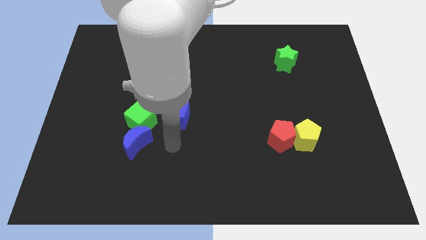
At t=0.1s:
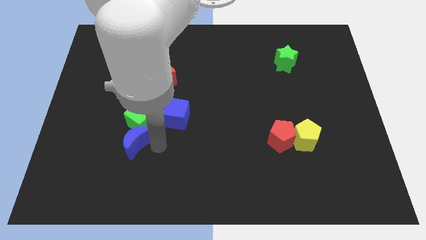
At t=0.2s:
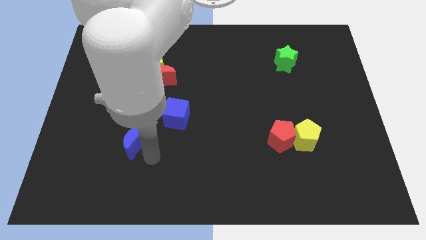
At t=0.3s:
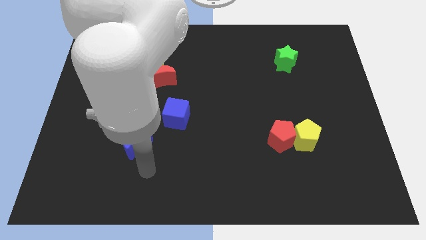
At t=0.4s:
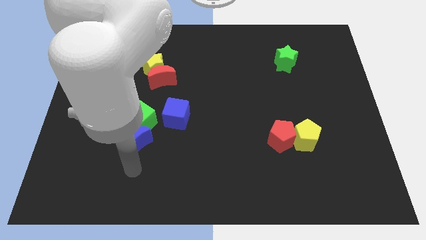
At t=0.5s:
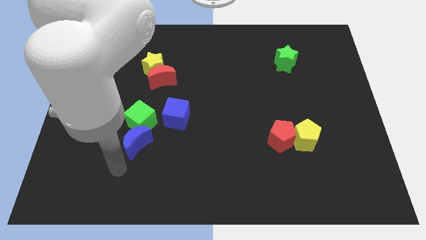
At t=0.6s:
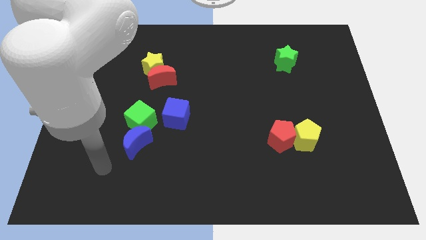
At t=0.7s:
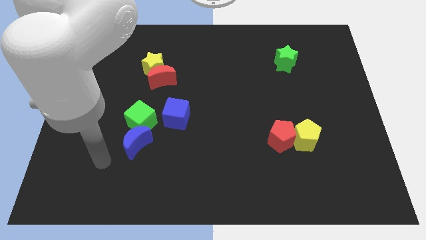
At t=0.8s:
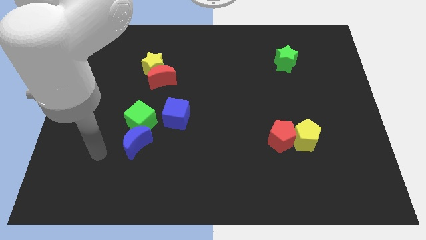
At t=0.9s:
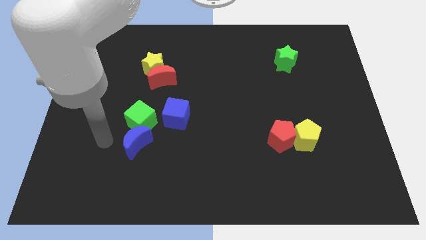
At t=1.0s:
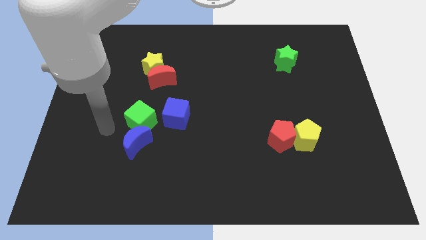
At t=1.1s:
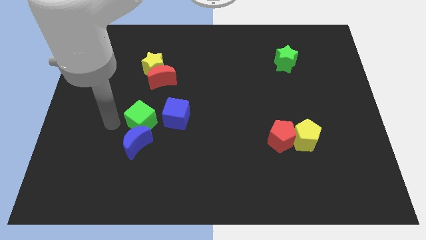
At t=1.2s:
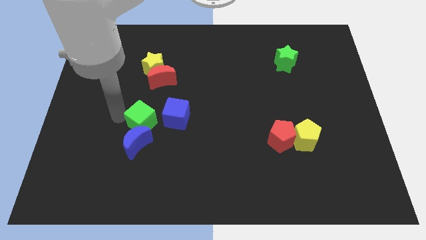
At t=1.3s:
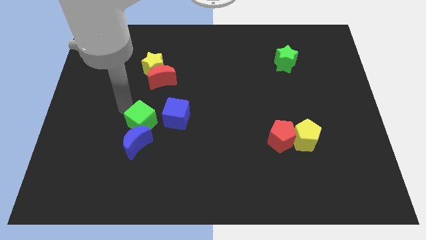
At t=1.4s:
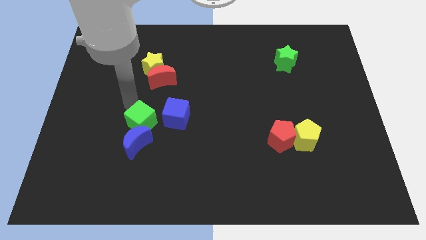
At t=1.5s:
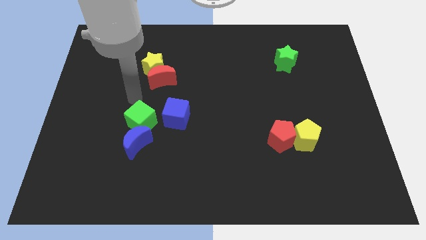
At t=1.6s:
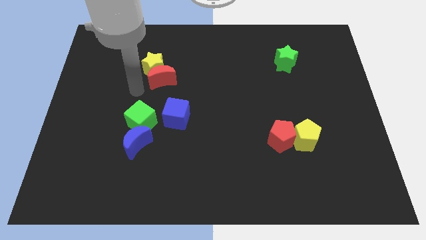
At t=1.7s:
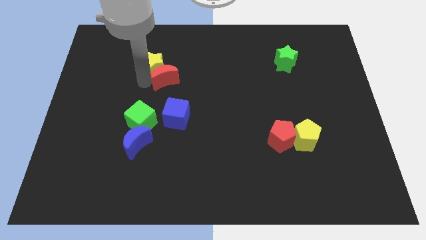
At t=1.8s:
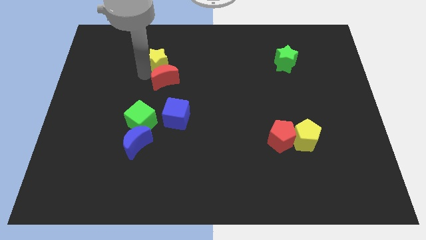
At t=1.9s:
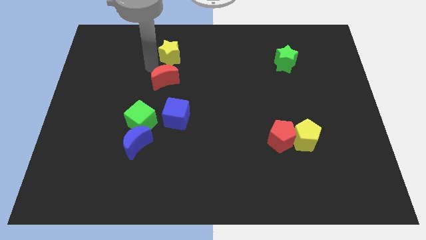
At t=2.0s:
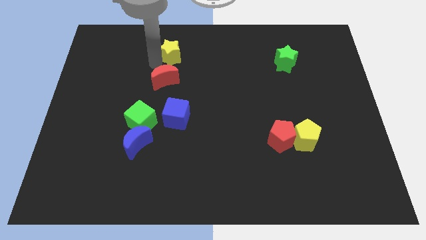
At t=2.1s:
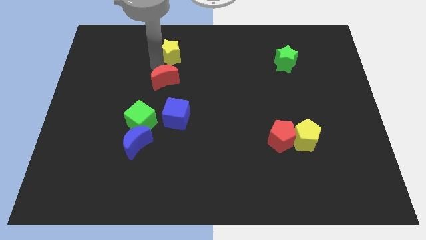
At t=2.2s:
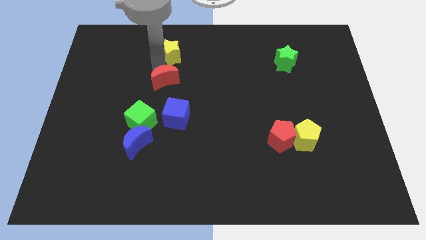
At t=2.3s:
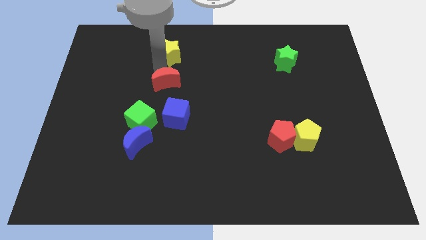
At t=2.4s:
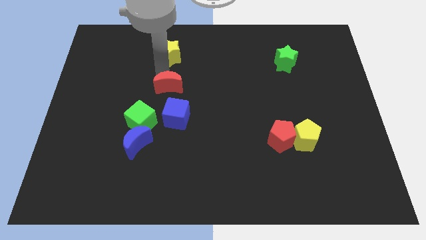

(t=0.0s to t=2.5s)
move the red moon away from the yellow star

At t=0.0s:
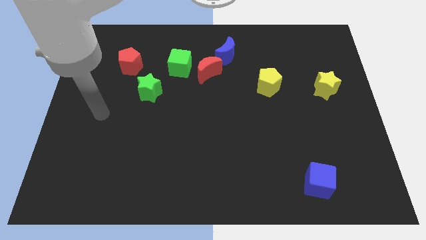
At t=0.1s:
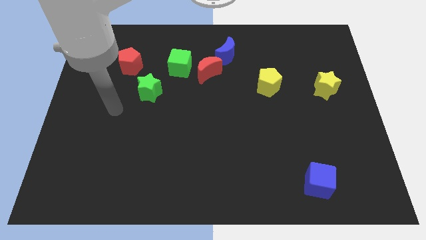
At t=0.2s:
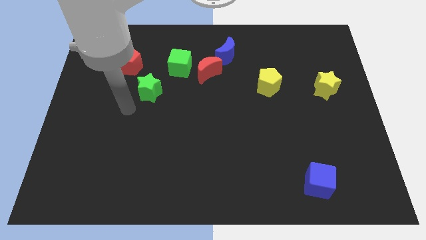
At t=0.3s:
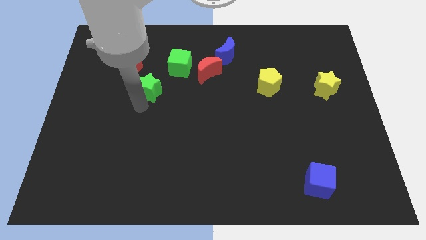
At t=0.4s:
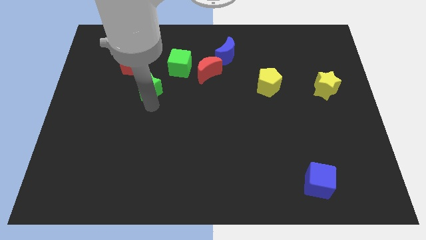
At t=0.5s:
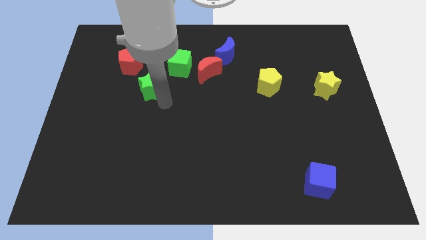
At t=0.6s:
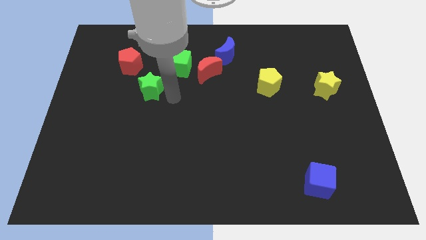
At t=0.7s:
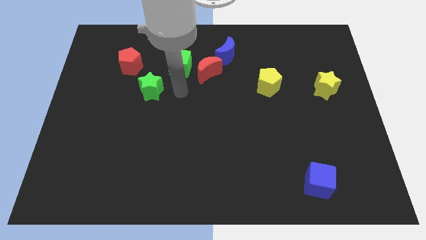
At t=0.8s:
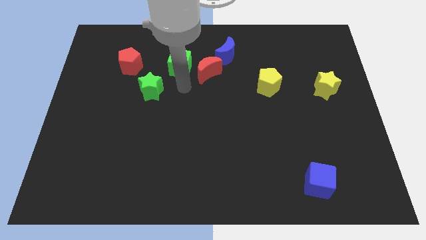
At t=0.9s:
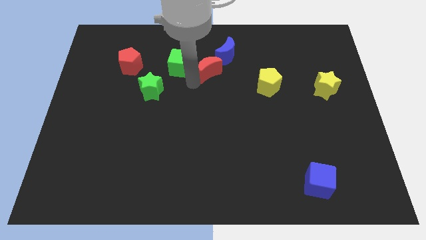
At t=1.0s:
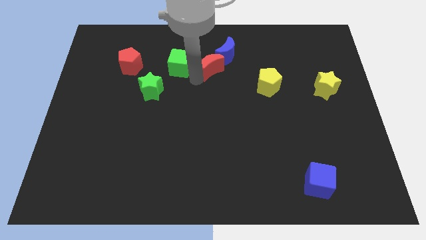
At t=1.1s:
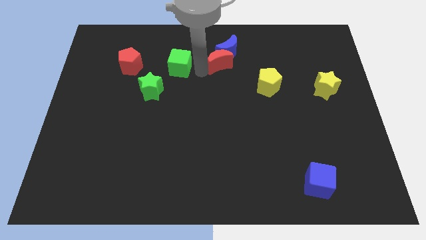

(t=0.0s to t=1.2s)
separate the green cube from the red moon

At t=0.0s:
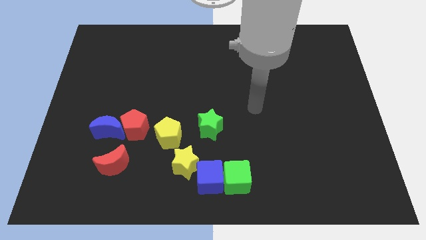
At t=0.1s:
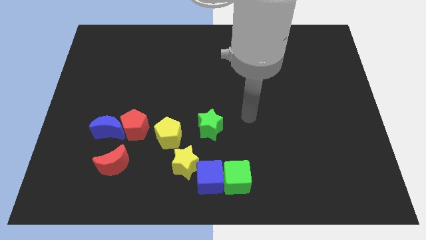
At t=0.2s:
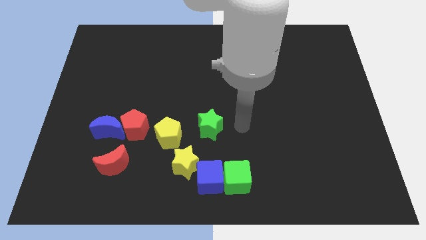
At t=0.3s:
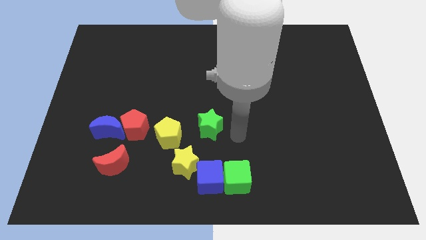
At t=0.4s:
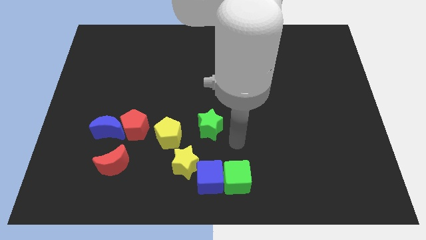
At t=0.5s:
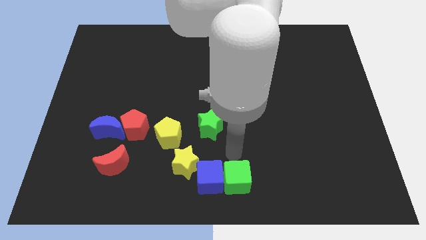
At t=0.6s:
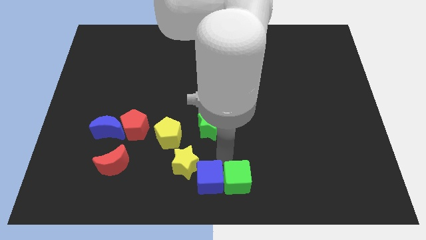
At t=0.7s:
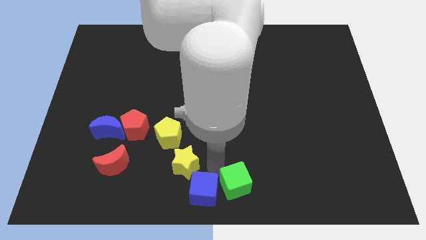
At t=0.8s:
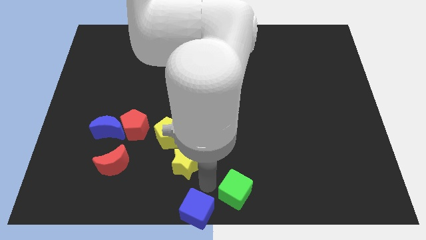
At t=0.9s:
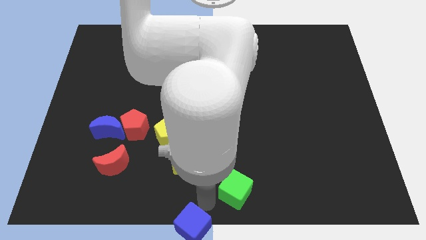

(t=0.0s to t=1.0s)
separate the green cube from the blue cube

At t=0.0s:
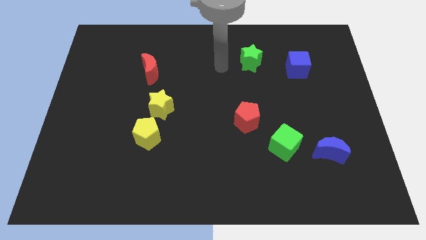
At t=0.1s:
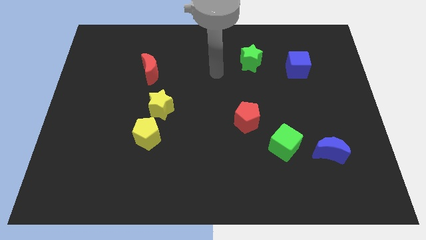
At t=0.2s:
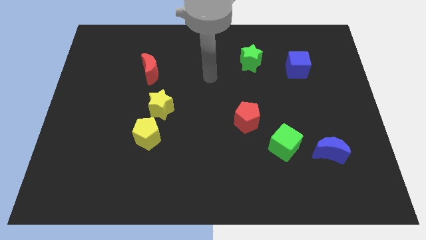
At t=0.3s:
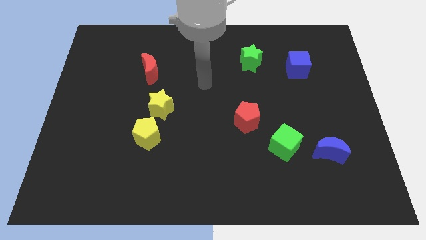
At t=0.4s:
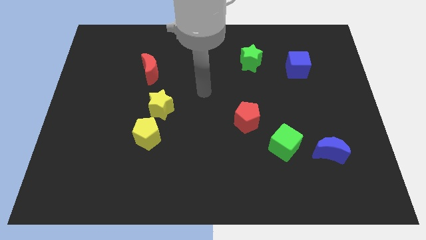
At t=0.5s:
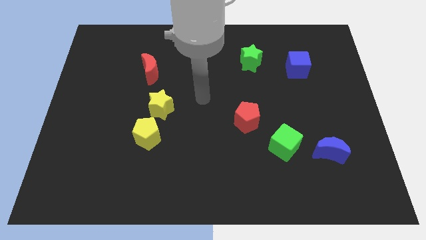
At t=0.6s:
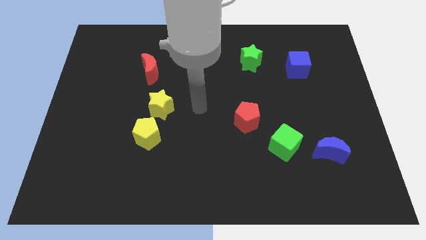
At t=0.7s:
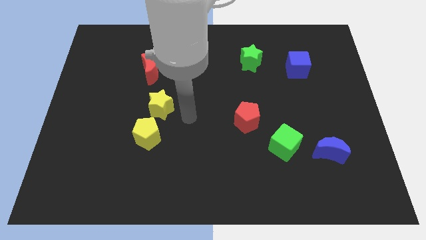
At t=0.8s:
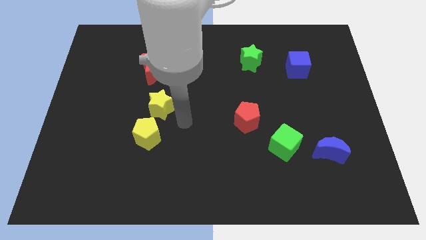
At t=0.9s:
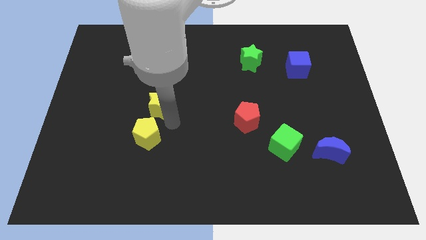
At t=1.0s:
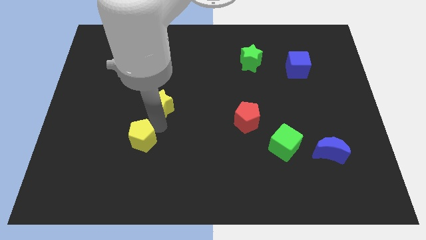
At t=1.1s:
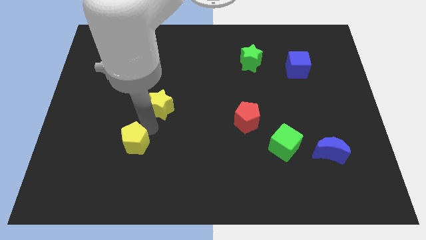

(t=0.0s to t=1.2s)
pull the yellow star apart from the yellow pentagon

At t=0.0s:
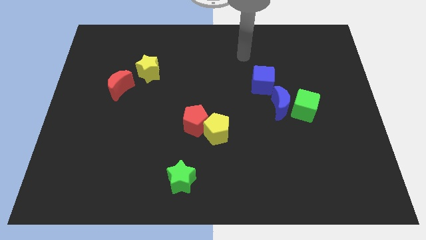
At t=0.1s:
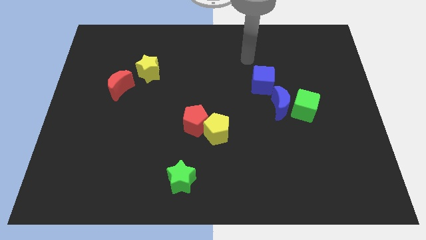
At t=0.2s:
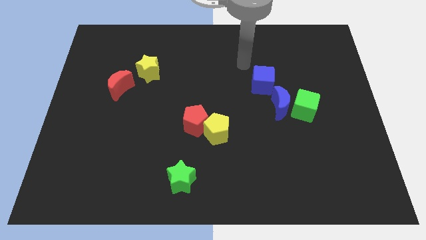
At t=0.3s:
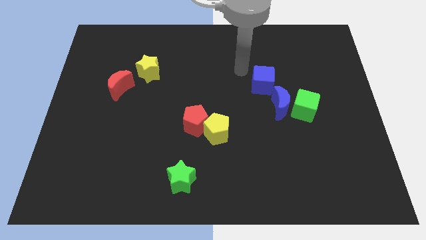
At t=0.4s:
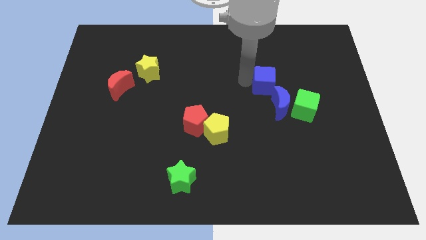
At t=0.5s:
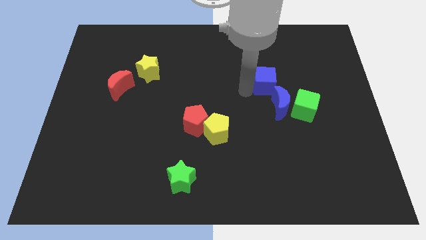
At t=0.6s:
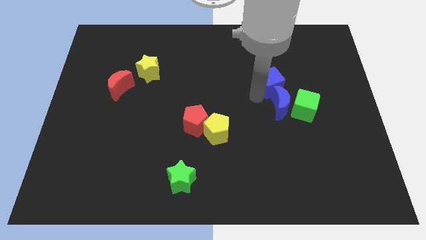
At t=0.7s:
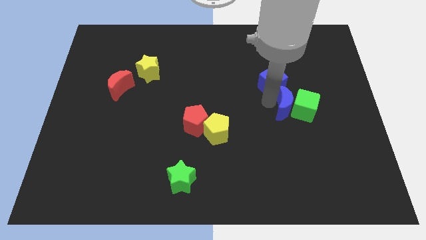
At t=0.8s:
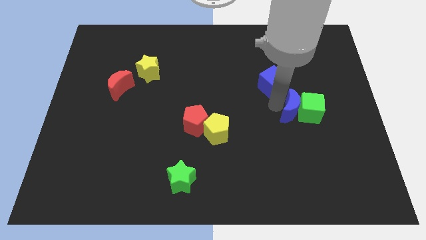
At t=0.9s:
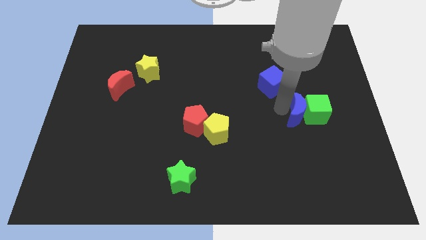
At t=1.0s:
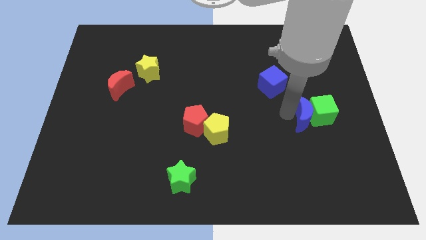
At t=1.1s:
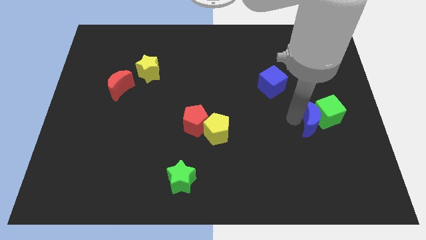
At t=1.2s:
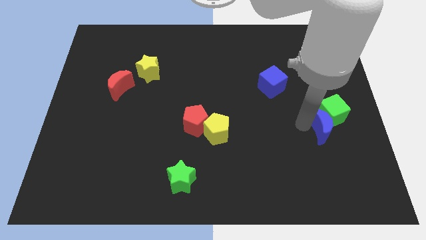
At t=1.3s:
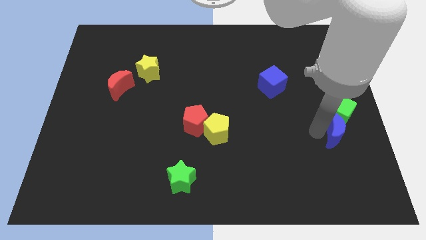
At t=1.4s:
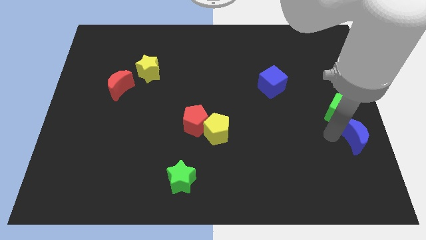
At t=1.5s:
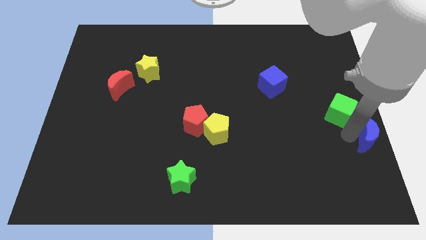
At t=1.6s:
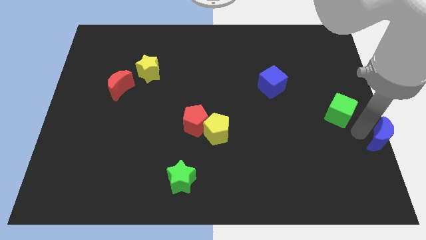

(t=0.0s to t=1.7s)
move the green cube away from the blue moon

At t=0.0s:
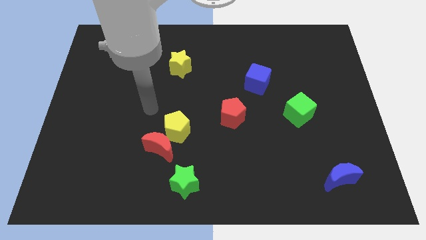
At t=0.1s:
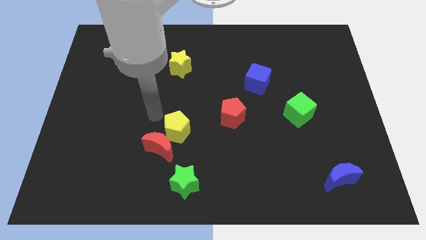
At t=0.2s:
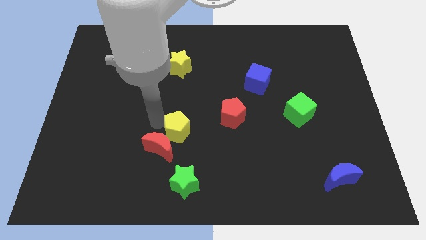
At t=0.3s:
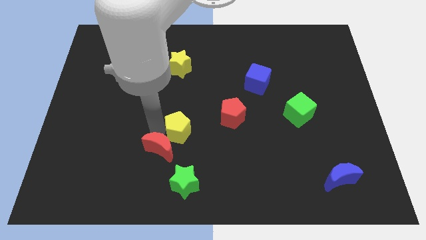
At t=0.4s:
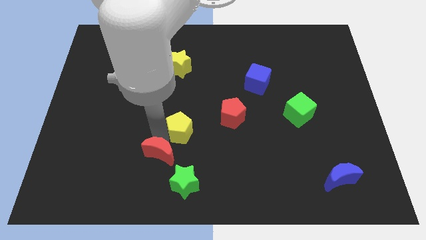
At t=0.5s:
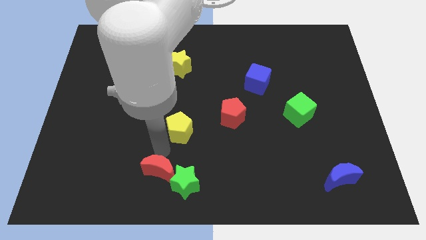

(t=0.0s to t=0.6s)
separate the yellow pentagon from the red moon

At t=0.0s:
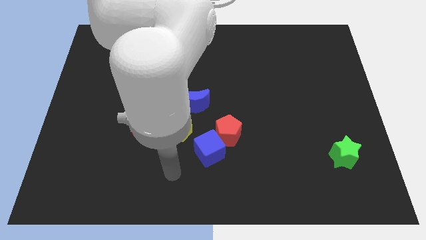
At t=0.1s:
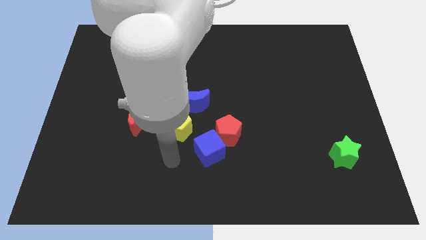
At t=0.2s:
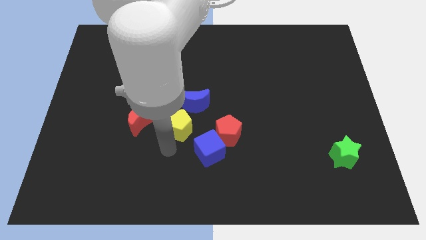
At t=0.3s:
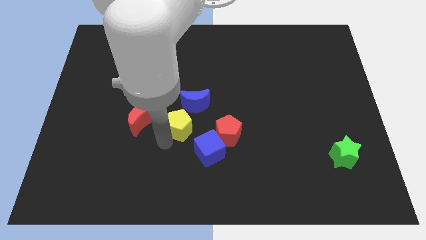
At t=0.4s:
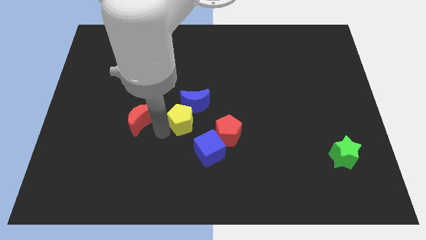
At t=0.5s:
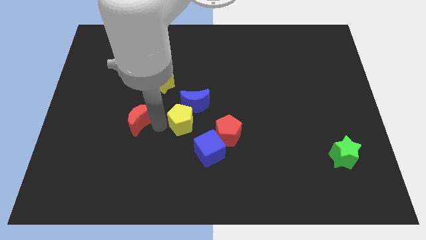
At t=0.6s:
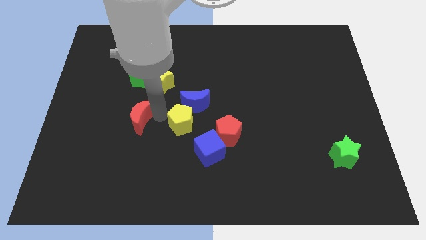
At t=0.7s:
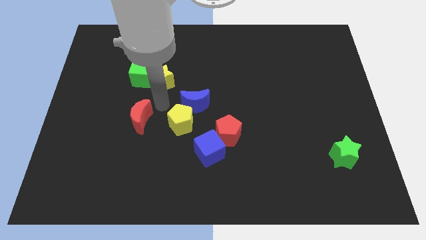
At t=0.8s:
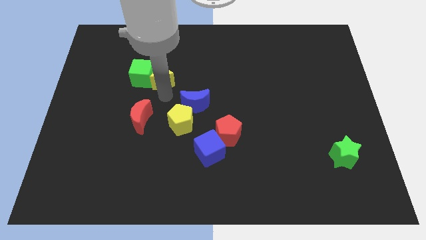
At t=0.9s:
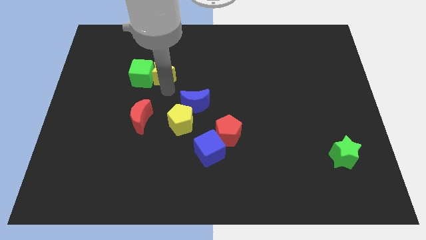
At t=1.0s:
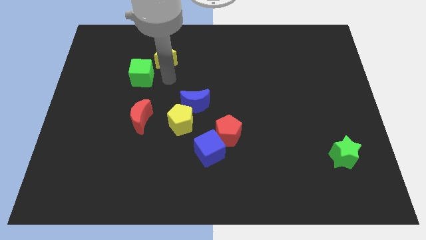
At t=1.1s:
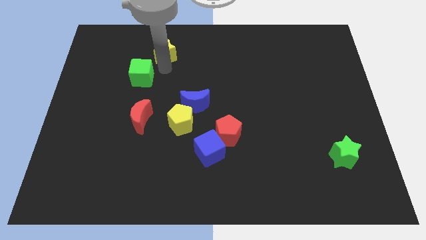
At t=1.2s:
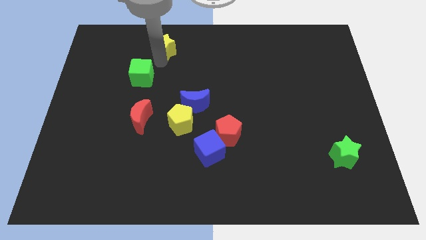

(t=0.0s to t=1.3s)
pull the green cube apart from the yellow star
